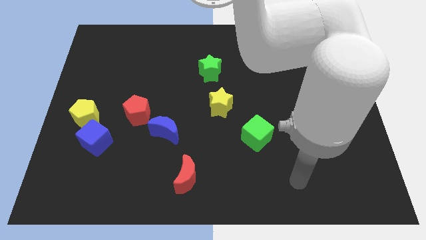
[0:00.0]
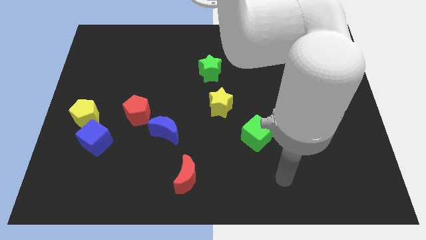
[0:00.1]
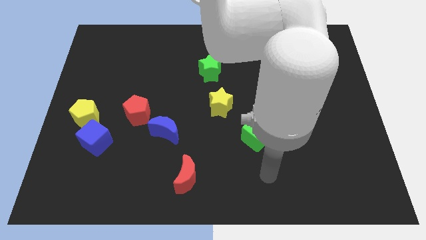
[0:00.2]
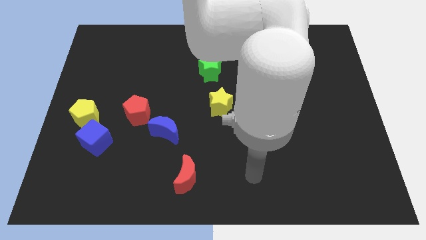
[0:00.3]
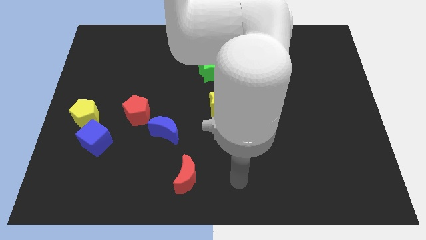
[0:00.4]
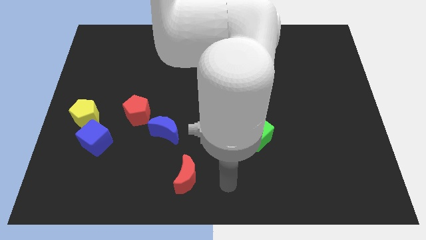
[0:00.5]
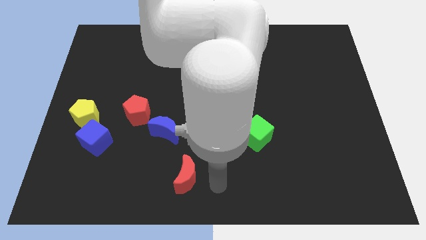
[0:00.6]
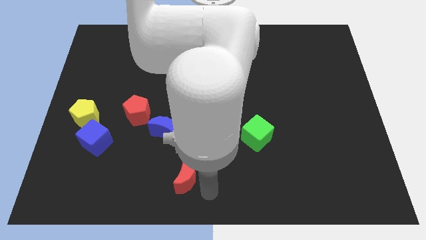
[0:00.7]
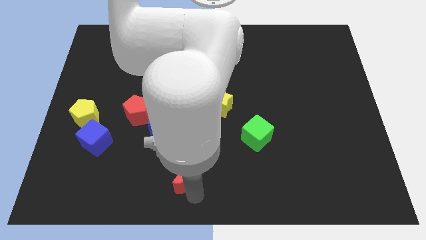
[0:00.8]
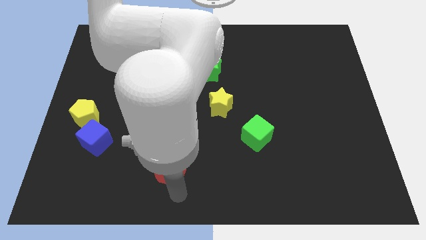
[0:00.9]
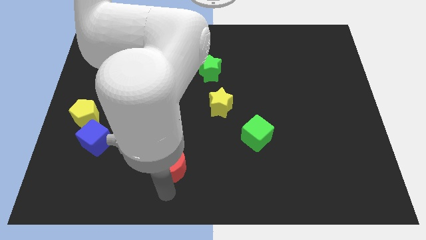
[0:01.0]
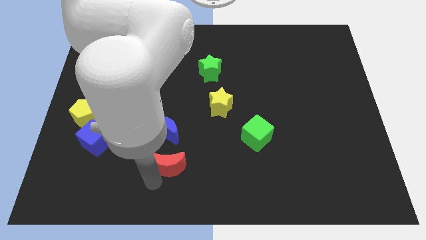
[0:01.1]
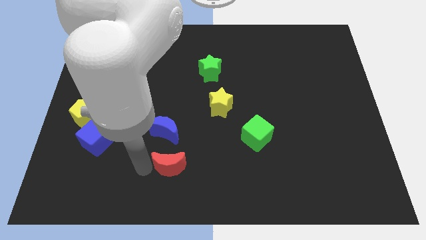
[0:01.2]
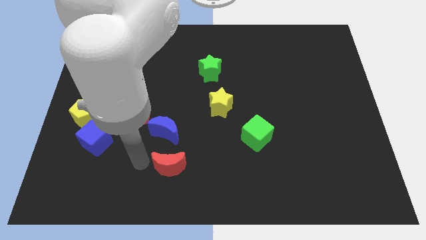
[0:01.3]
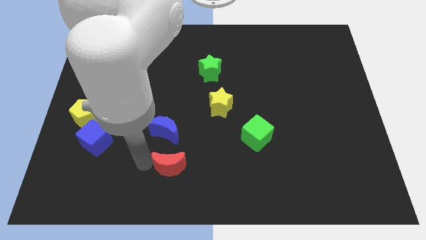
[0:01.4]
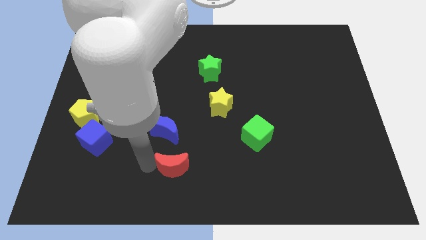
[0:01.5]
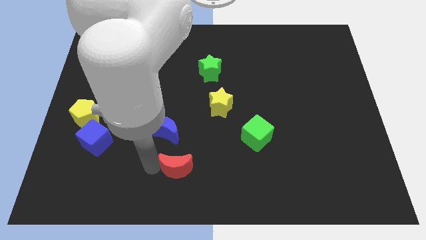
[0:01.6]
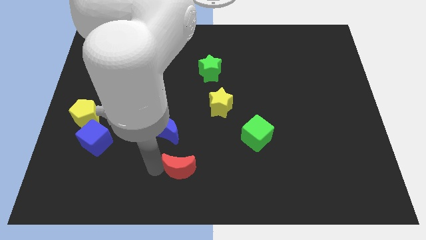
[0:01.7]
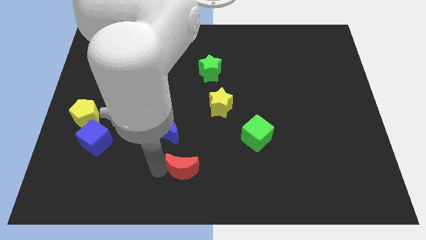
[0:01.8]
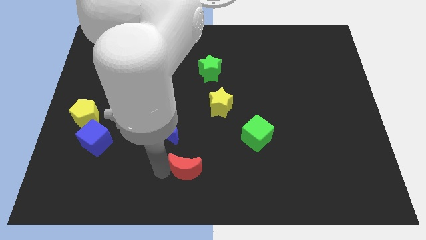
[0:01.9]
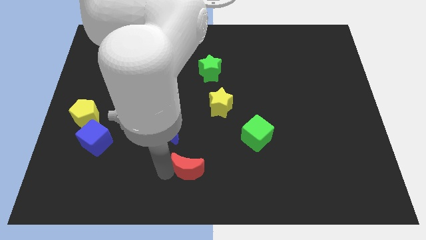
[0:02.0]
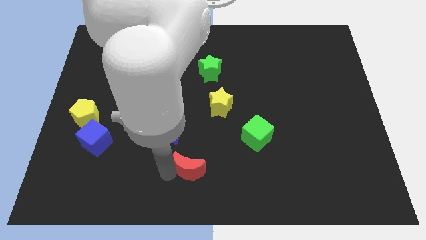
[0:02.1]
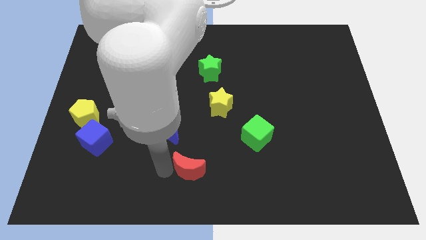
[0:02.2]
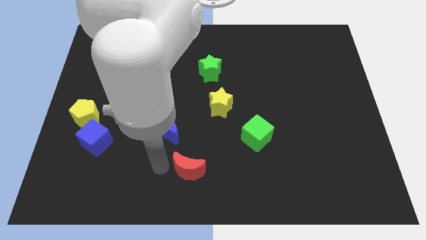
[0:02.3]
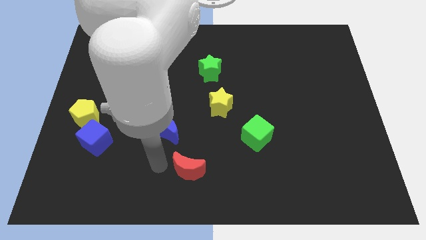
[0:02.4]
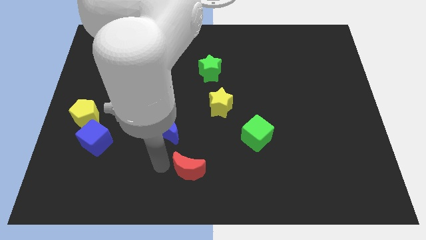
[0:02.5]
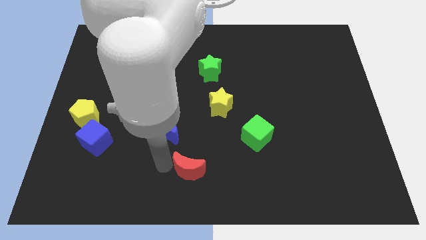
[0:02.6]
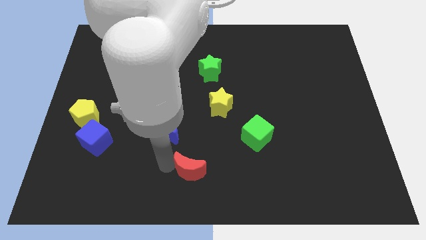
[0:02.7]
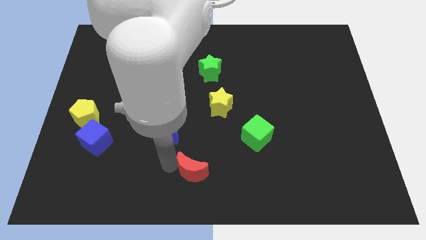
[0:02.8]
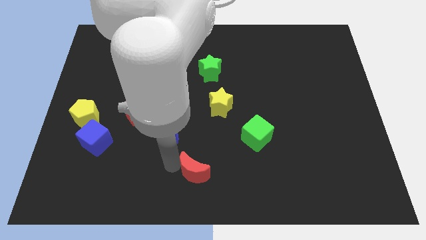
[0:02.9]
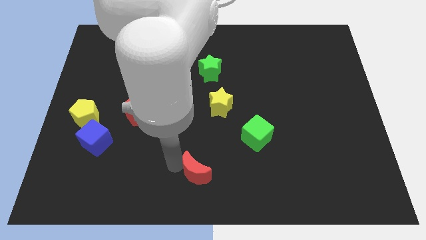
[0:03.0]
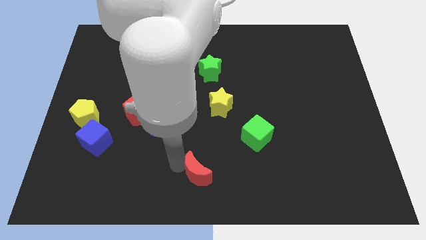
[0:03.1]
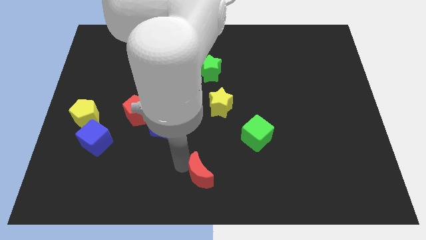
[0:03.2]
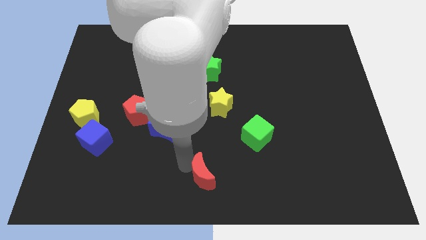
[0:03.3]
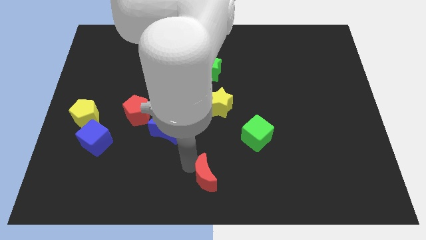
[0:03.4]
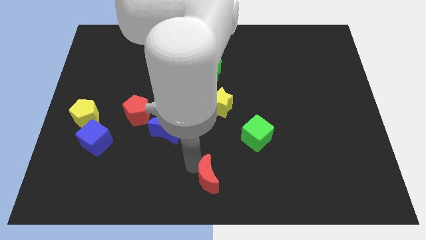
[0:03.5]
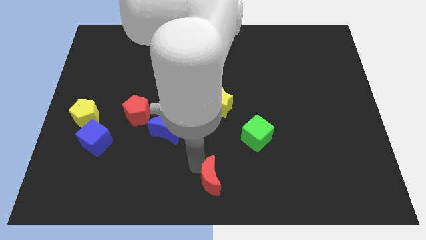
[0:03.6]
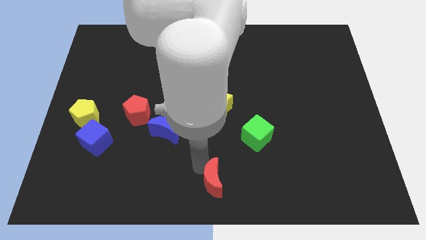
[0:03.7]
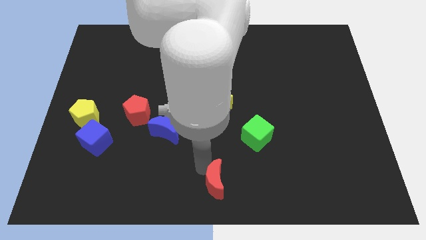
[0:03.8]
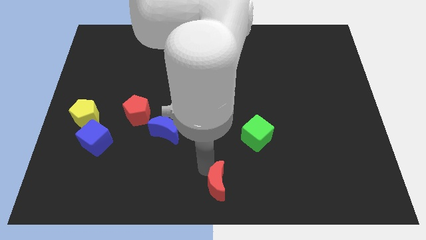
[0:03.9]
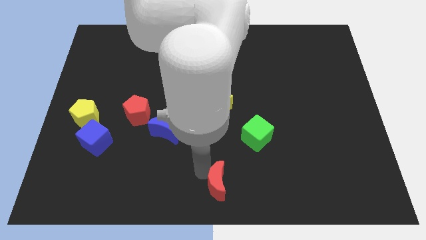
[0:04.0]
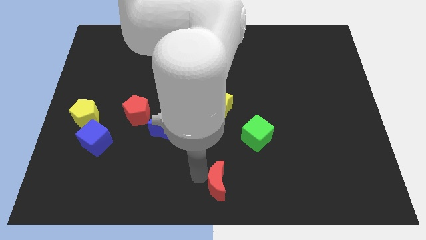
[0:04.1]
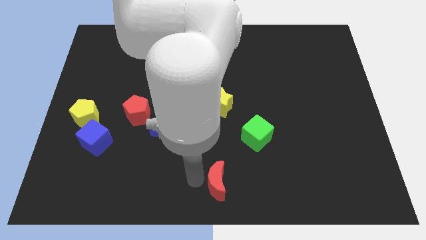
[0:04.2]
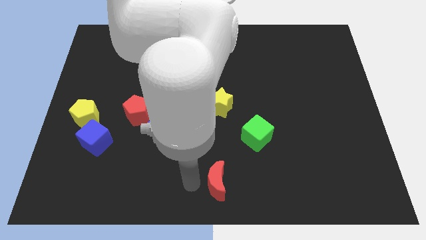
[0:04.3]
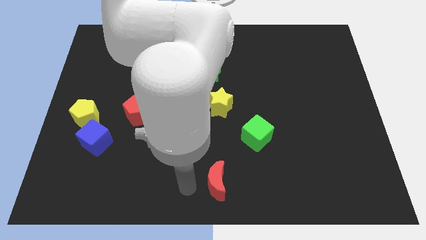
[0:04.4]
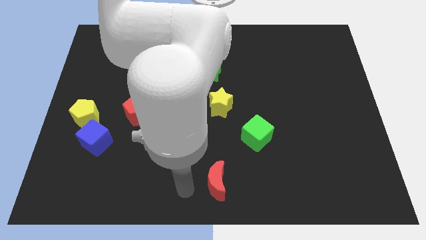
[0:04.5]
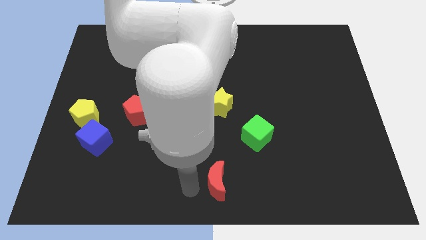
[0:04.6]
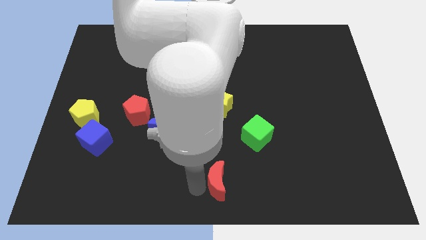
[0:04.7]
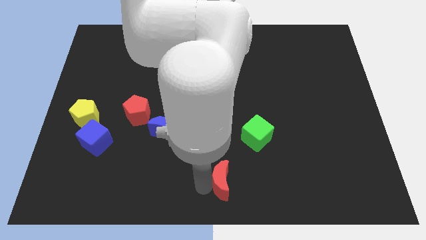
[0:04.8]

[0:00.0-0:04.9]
slightly push the red moon to the right

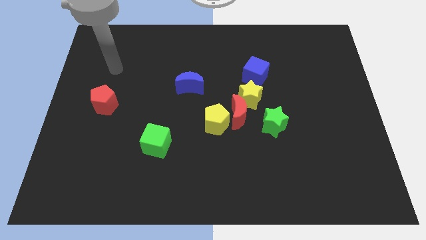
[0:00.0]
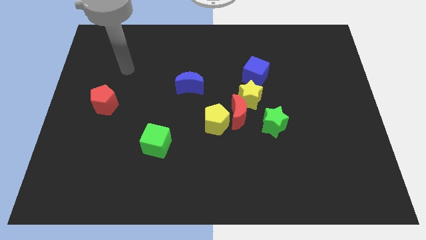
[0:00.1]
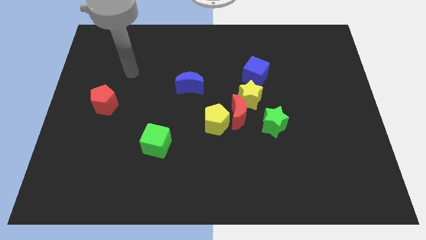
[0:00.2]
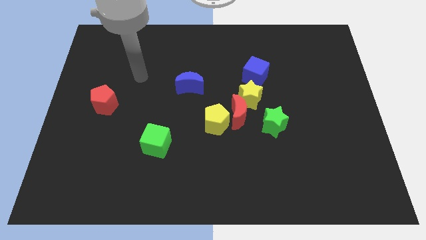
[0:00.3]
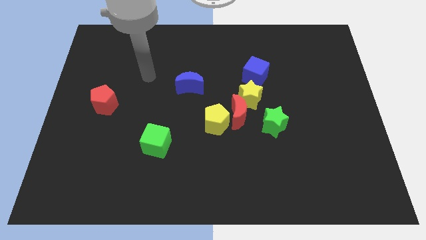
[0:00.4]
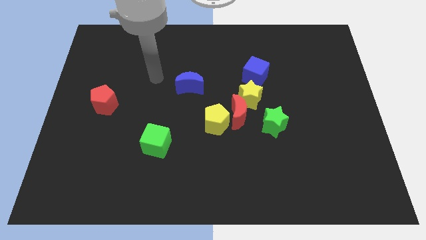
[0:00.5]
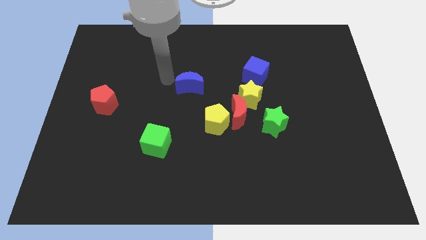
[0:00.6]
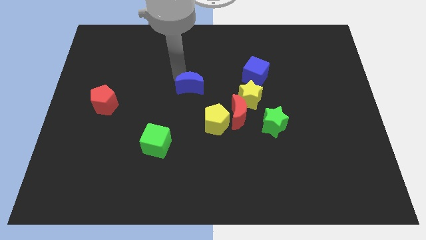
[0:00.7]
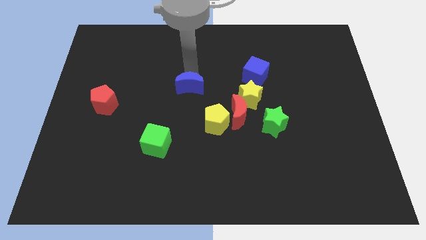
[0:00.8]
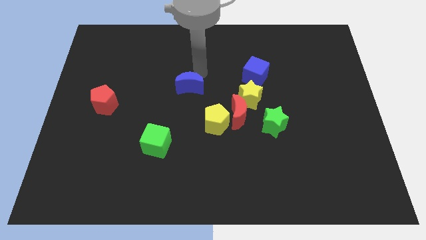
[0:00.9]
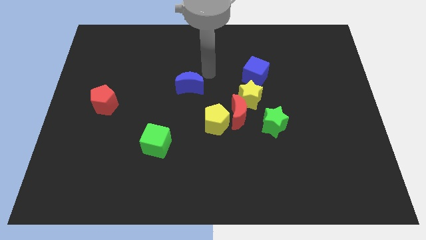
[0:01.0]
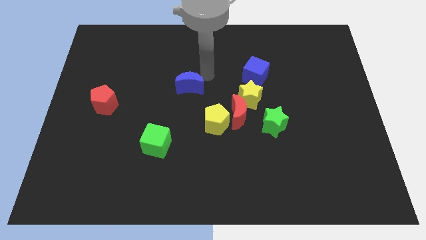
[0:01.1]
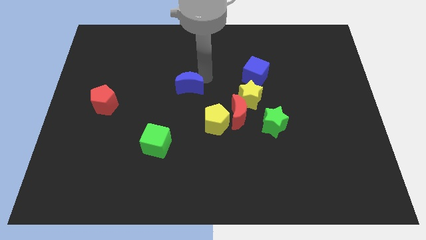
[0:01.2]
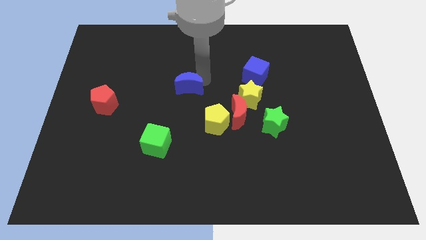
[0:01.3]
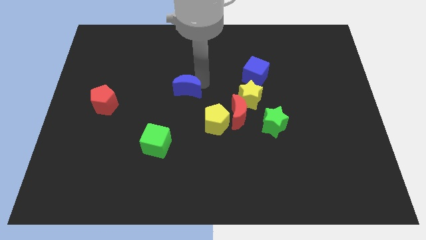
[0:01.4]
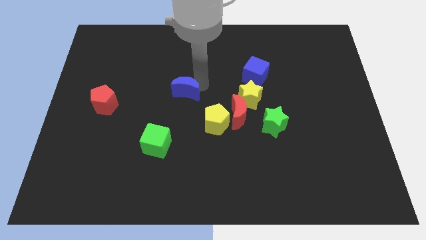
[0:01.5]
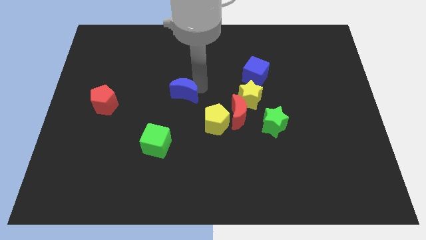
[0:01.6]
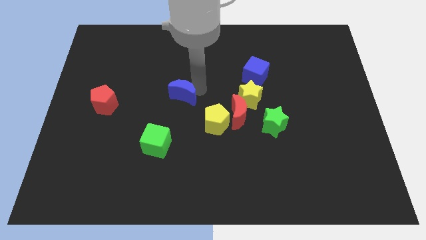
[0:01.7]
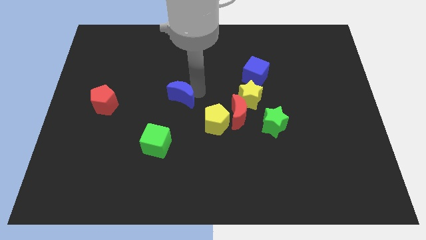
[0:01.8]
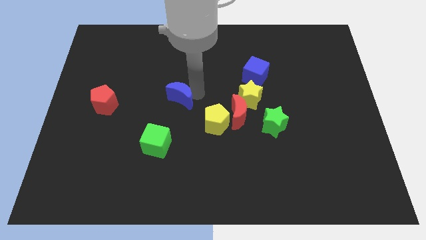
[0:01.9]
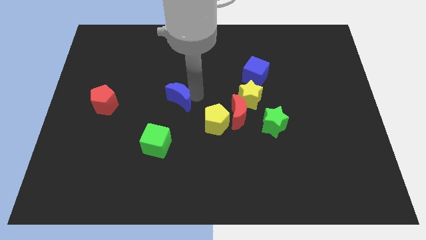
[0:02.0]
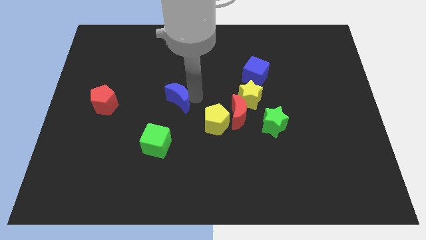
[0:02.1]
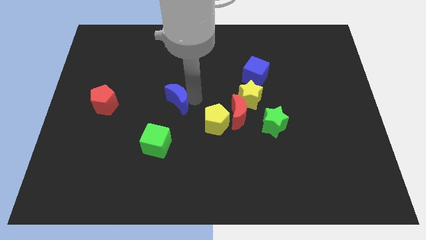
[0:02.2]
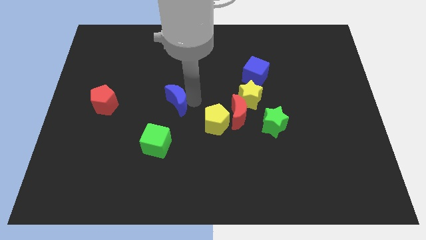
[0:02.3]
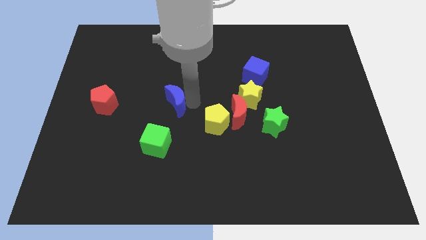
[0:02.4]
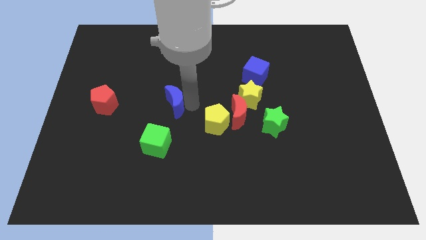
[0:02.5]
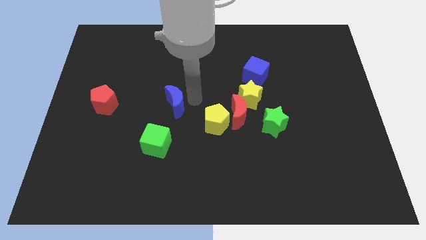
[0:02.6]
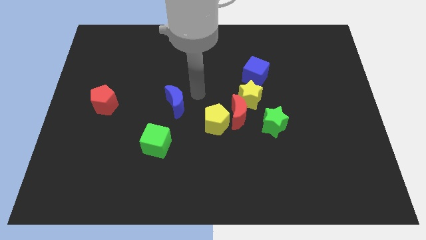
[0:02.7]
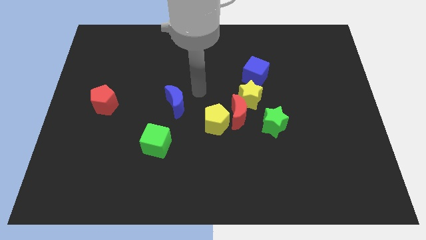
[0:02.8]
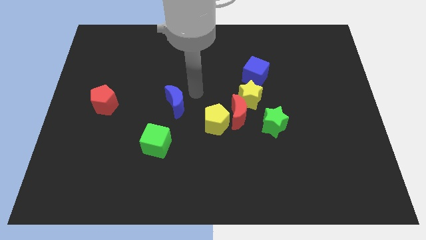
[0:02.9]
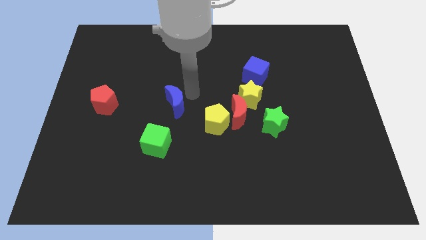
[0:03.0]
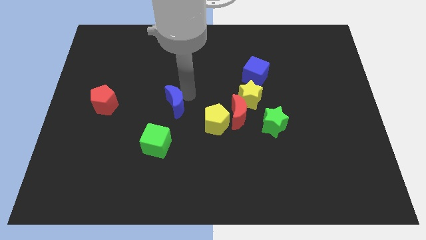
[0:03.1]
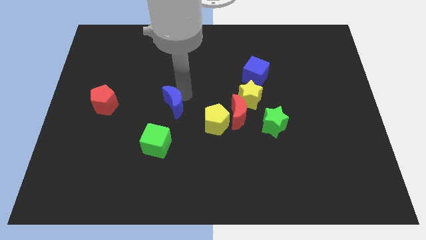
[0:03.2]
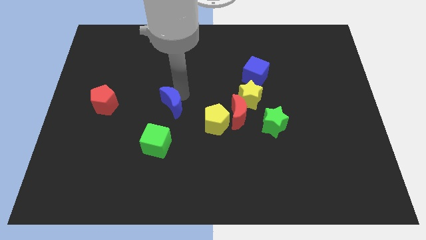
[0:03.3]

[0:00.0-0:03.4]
push the blue moon a little downwards and to the left diagonally
